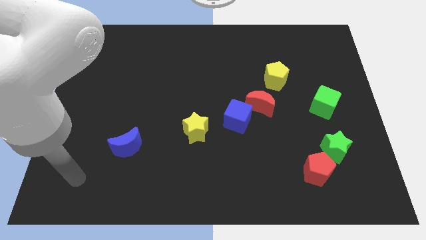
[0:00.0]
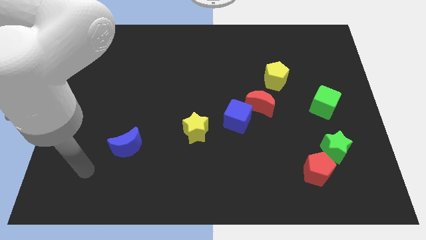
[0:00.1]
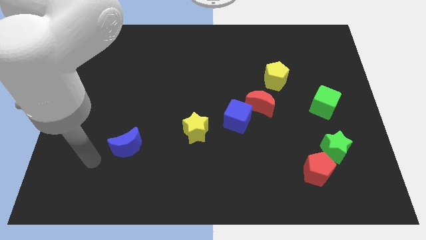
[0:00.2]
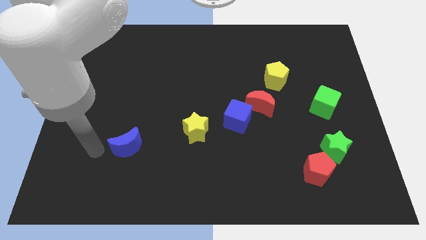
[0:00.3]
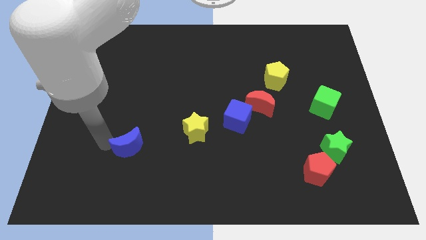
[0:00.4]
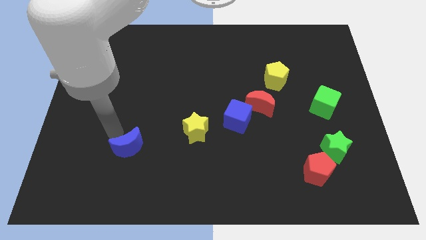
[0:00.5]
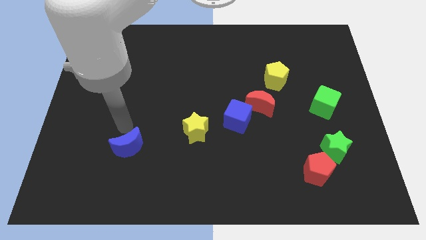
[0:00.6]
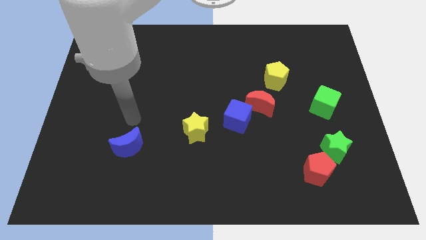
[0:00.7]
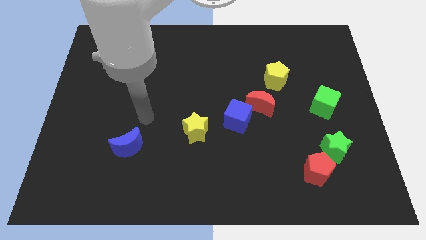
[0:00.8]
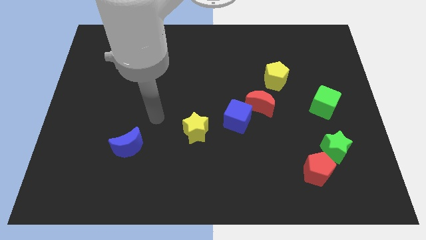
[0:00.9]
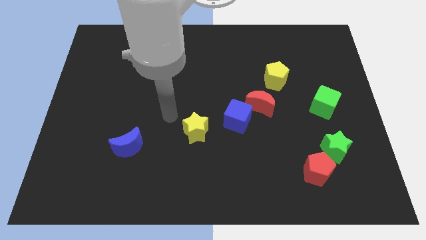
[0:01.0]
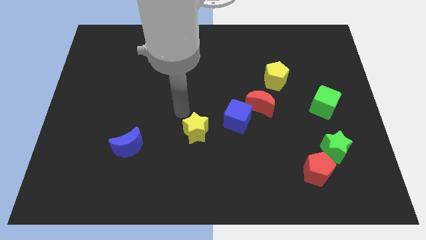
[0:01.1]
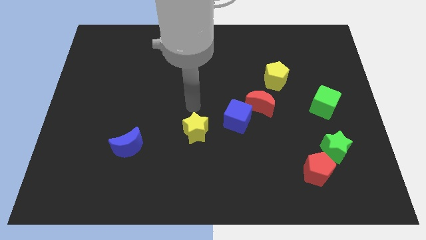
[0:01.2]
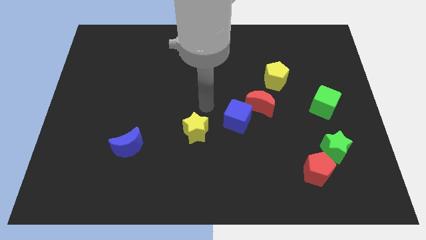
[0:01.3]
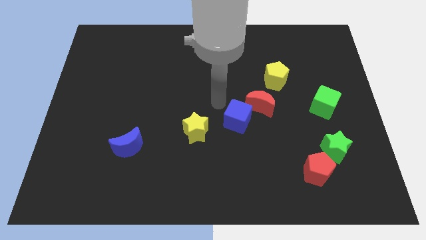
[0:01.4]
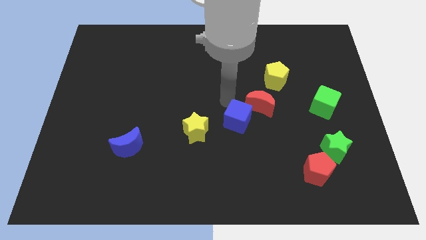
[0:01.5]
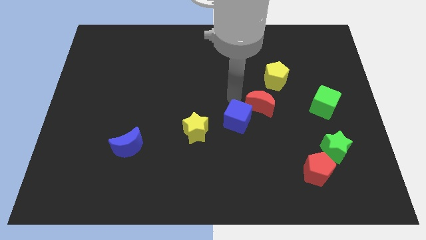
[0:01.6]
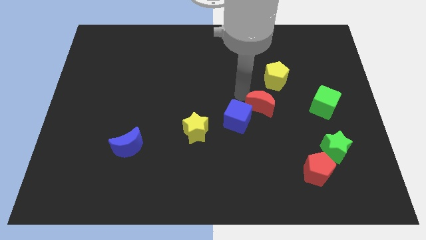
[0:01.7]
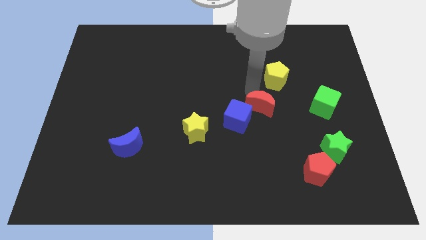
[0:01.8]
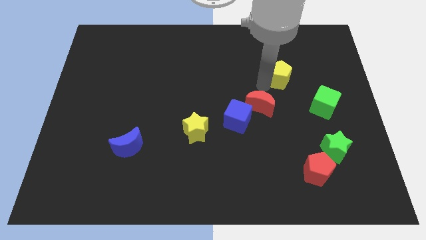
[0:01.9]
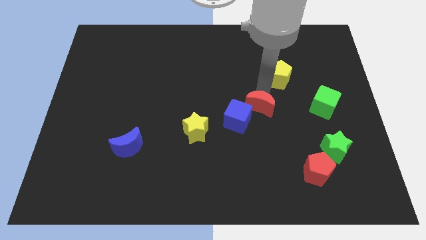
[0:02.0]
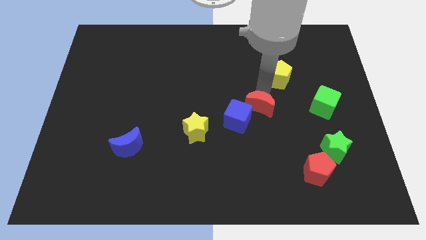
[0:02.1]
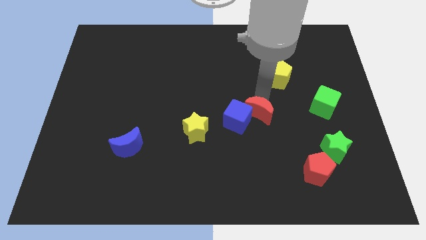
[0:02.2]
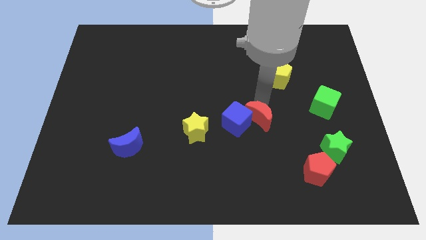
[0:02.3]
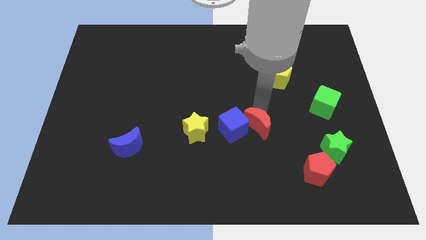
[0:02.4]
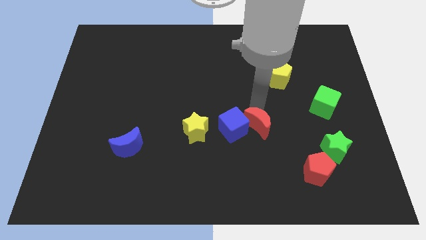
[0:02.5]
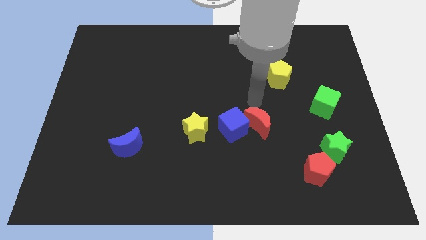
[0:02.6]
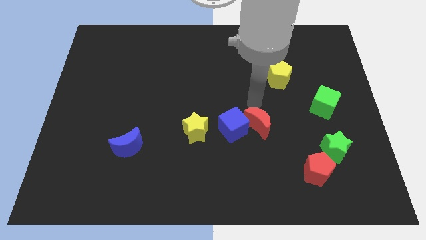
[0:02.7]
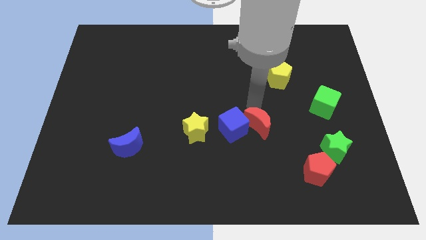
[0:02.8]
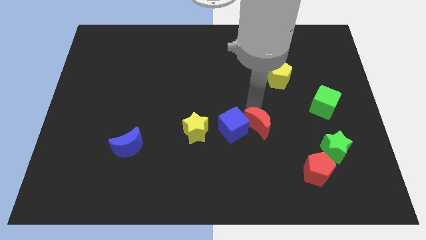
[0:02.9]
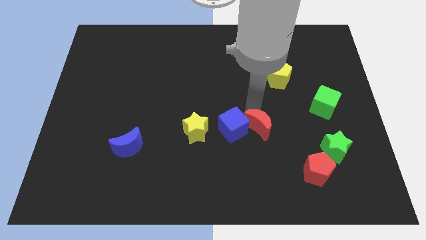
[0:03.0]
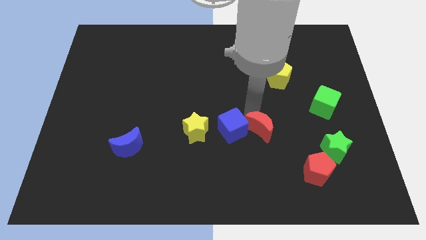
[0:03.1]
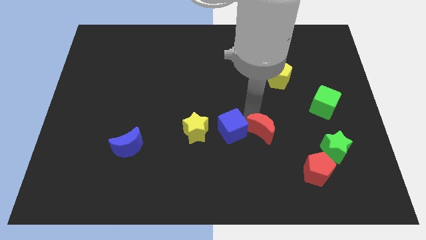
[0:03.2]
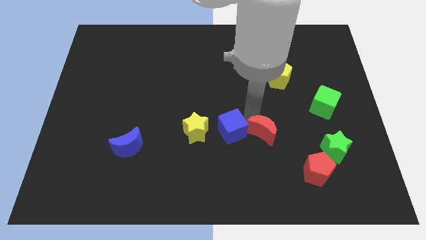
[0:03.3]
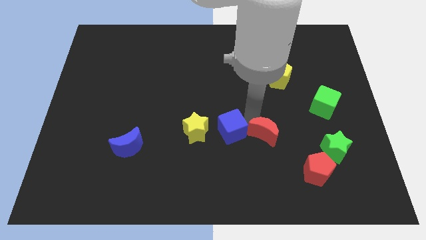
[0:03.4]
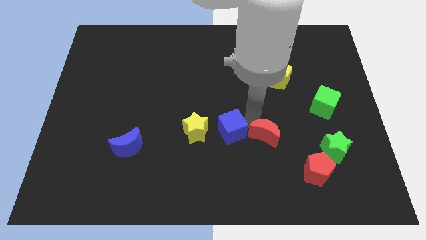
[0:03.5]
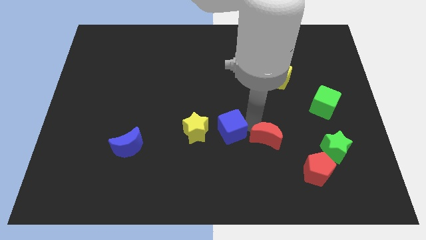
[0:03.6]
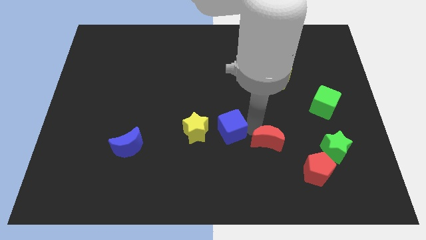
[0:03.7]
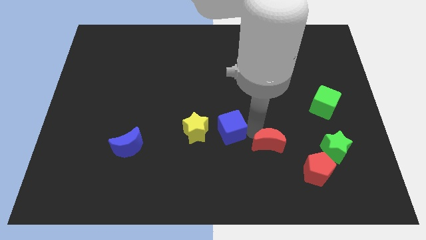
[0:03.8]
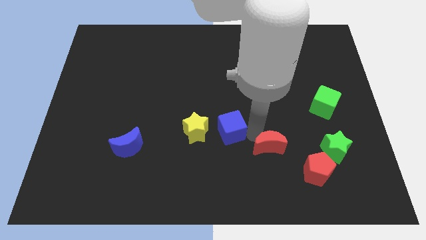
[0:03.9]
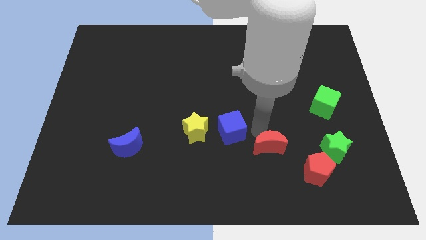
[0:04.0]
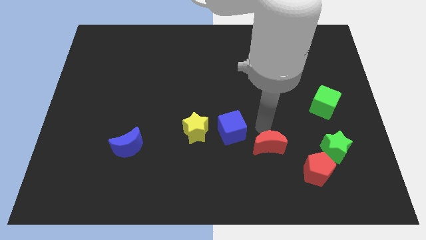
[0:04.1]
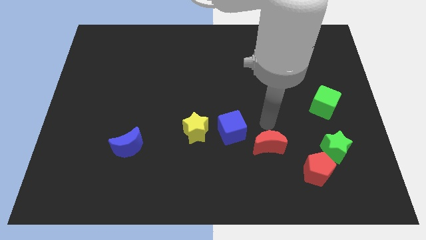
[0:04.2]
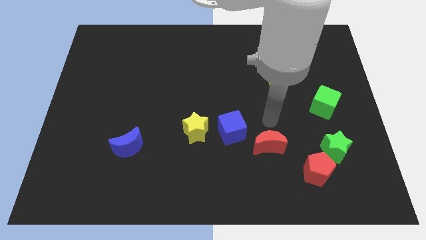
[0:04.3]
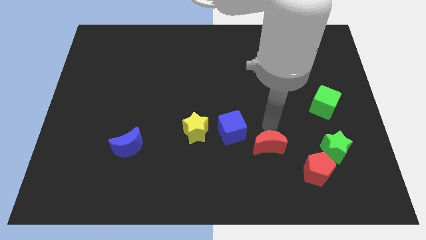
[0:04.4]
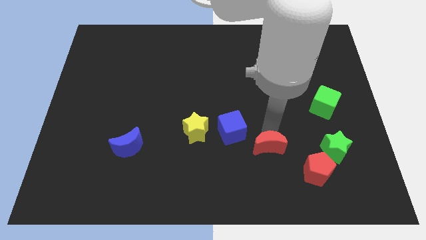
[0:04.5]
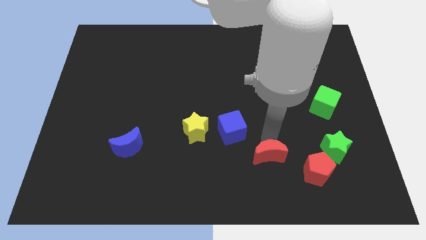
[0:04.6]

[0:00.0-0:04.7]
move the red moon to the left side of the red pentagon

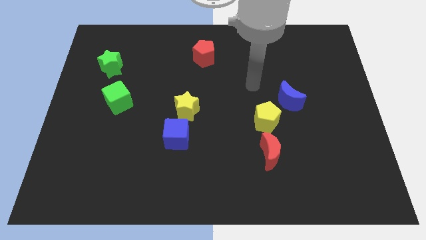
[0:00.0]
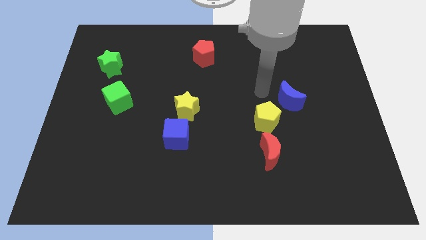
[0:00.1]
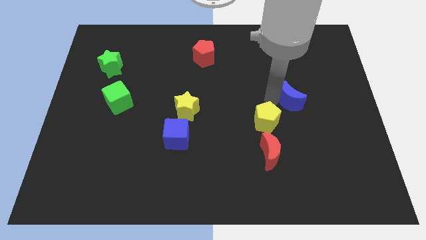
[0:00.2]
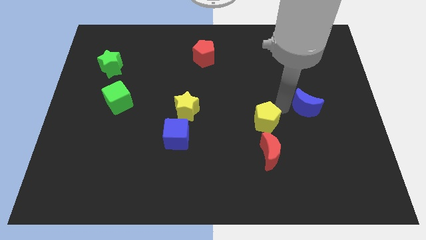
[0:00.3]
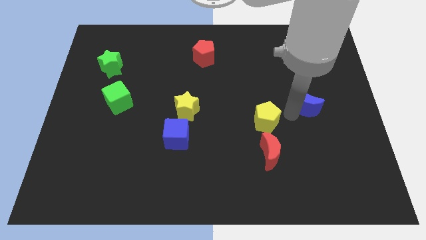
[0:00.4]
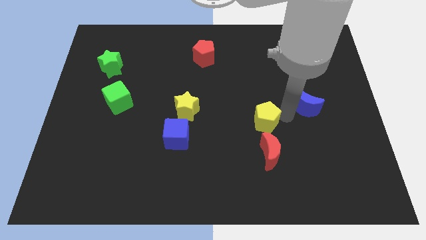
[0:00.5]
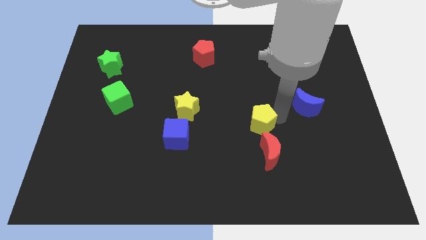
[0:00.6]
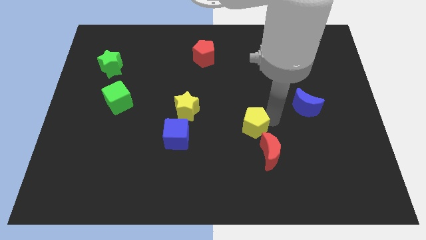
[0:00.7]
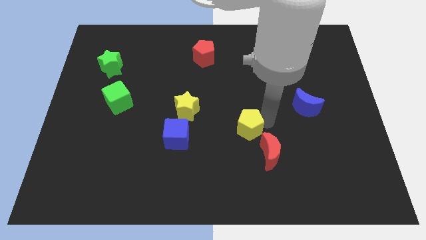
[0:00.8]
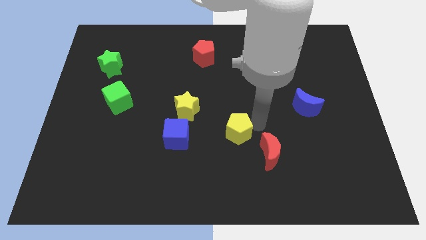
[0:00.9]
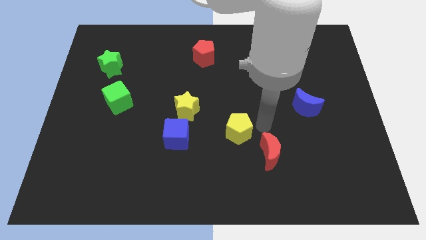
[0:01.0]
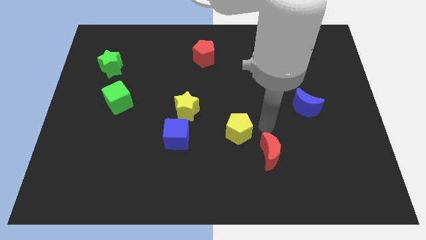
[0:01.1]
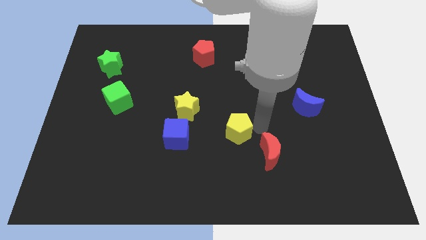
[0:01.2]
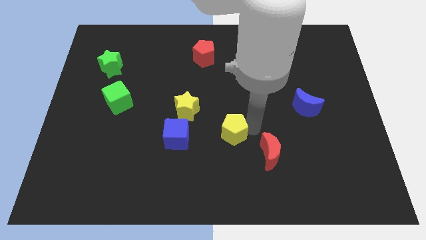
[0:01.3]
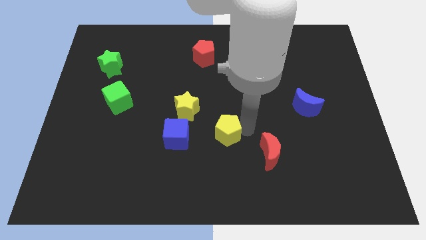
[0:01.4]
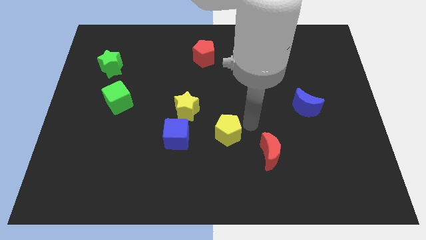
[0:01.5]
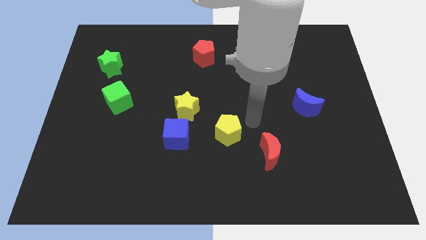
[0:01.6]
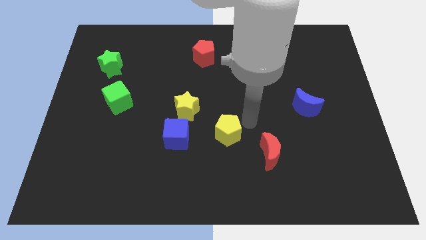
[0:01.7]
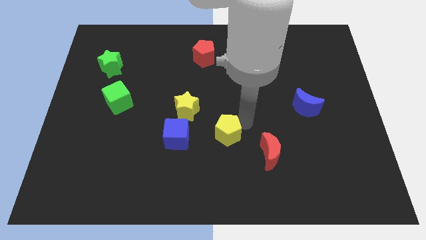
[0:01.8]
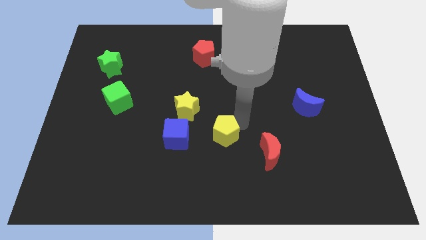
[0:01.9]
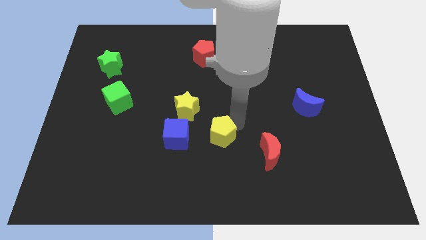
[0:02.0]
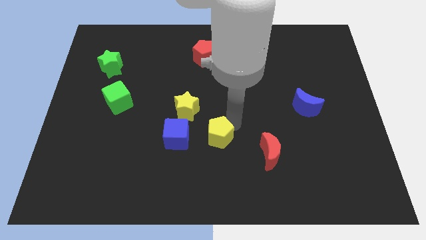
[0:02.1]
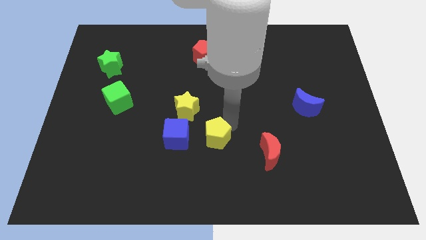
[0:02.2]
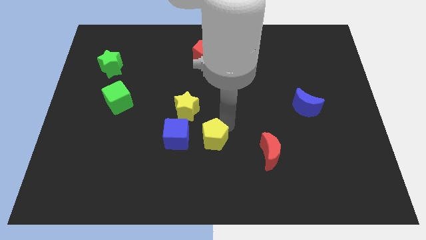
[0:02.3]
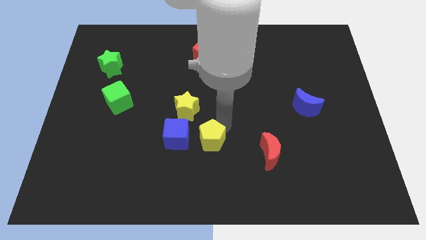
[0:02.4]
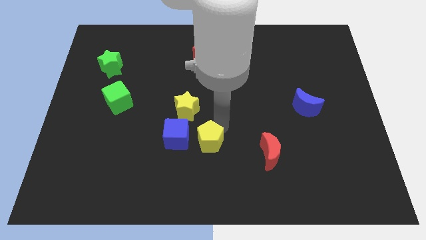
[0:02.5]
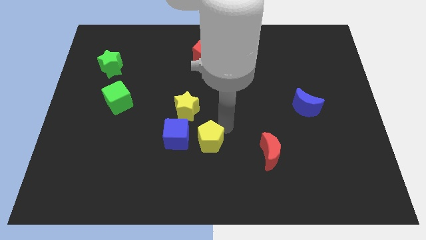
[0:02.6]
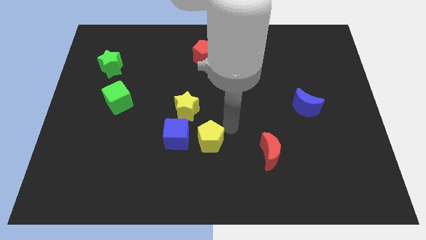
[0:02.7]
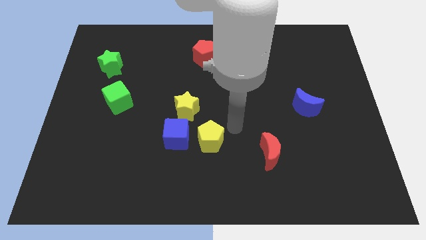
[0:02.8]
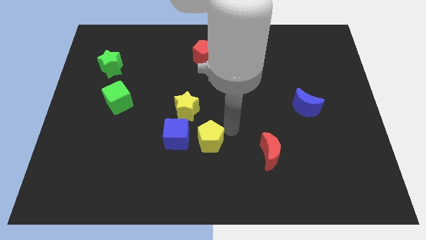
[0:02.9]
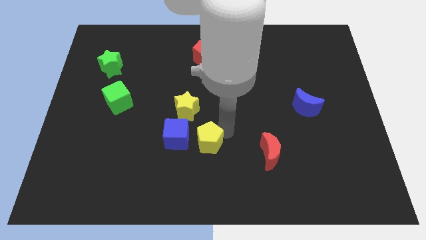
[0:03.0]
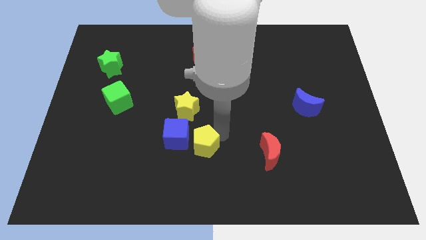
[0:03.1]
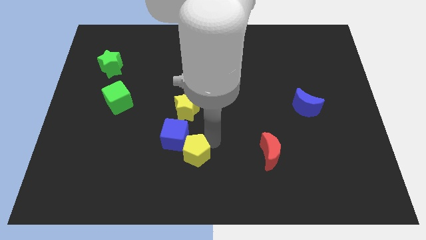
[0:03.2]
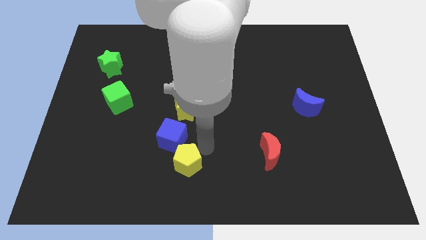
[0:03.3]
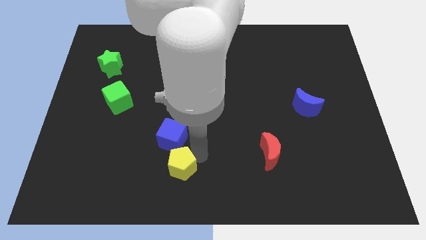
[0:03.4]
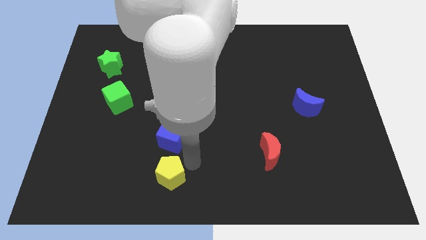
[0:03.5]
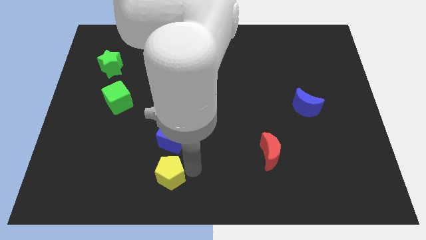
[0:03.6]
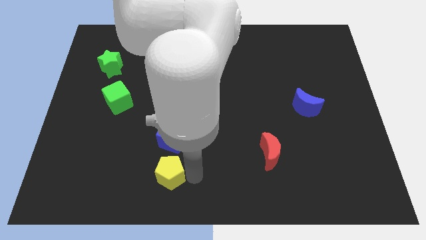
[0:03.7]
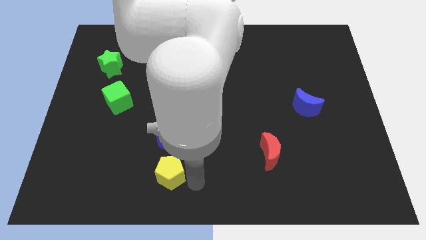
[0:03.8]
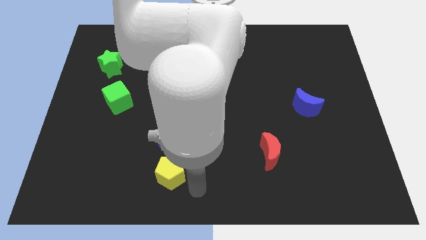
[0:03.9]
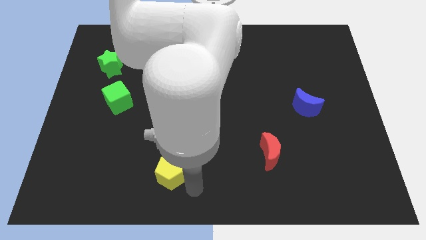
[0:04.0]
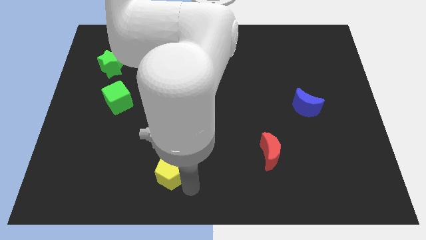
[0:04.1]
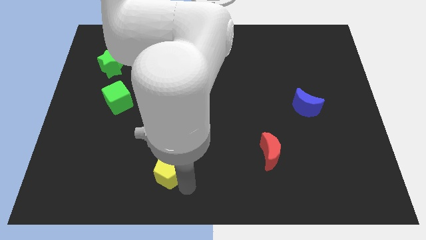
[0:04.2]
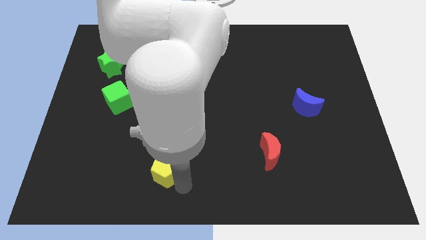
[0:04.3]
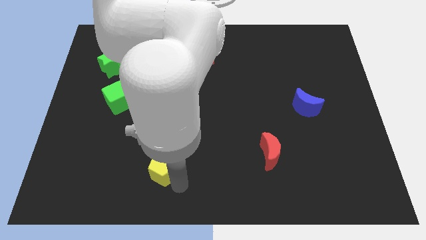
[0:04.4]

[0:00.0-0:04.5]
move the yellow pentagon diagonally down and to the left of the blue cube
